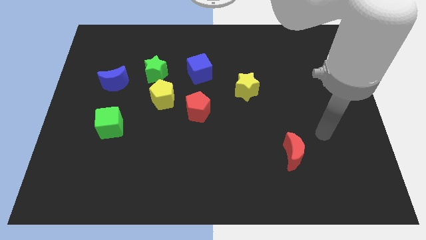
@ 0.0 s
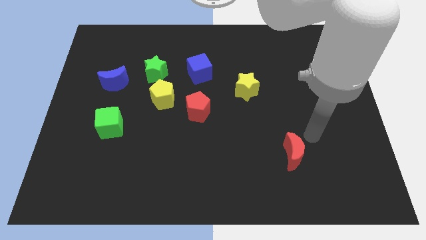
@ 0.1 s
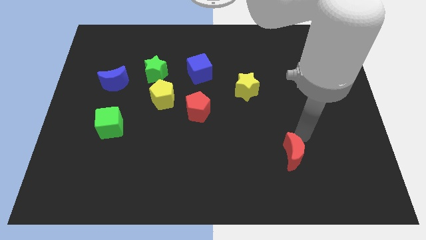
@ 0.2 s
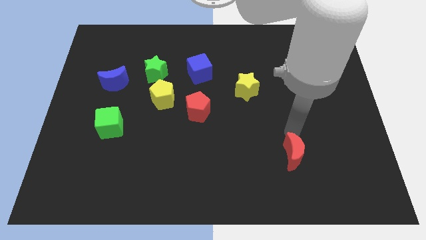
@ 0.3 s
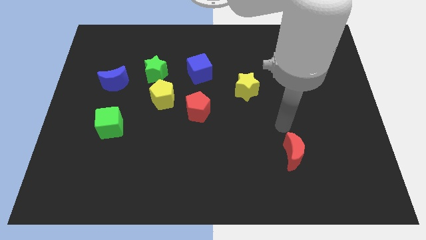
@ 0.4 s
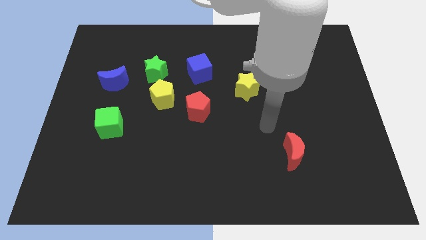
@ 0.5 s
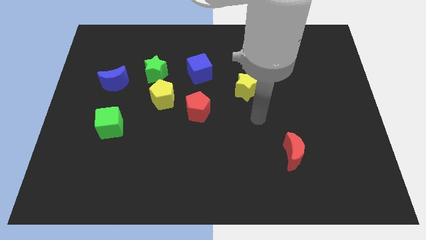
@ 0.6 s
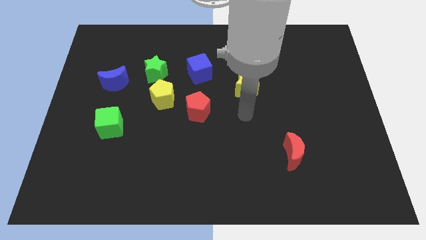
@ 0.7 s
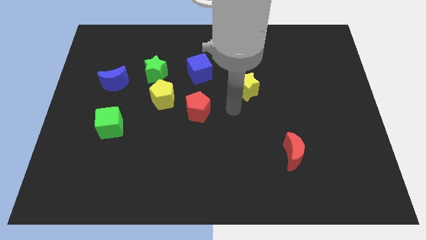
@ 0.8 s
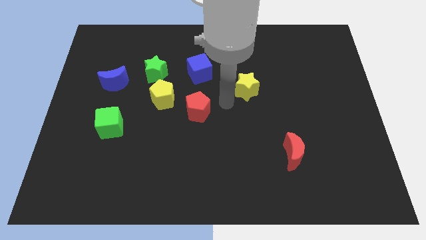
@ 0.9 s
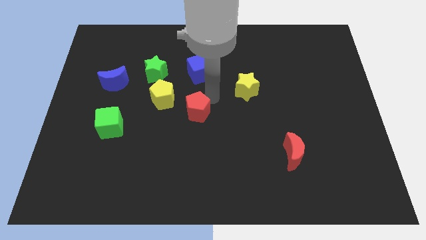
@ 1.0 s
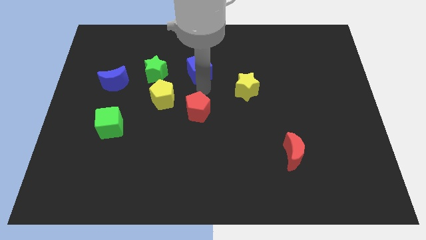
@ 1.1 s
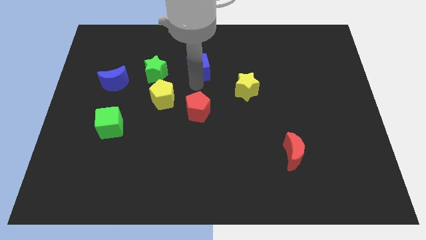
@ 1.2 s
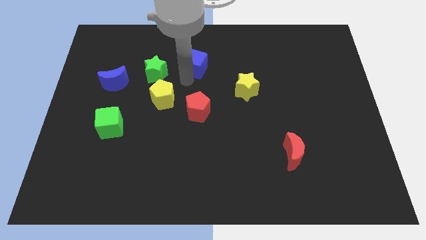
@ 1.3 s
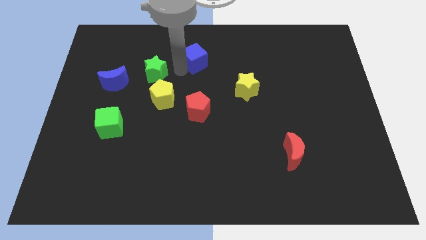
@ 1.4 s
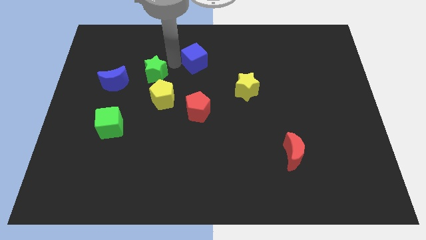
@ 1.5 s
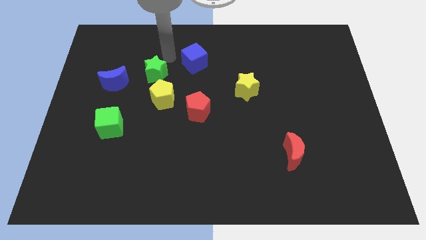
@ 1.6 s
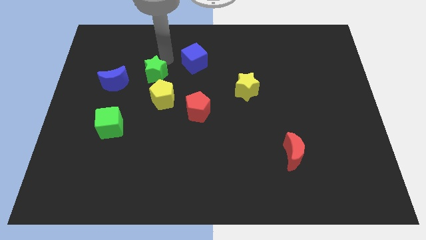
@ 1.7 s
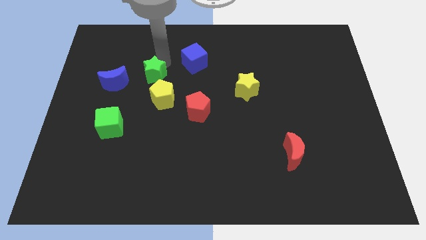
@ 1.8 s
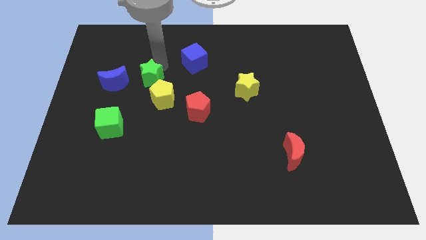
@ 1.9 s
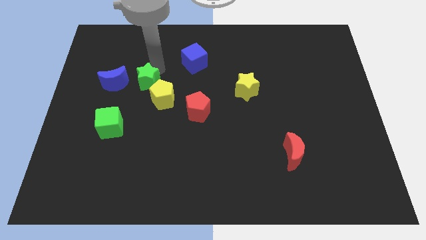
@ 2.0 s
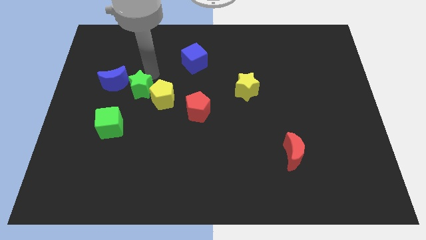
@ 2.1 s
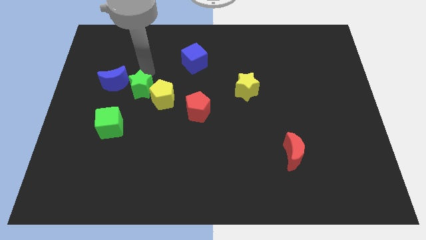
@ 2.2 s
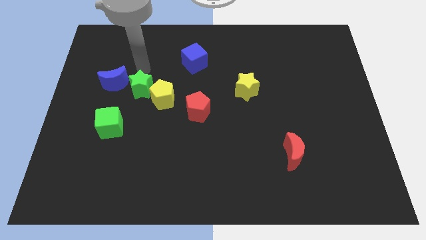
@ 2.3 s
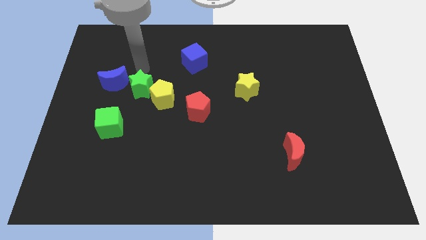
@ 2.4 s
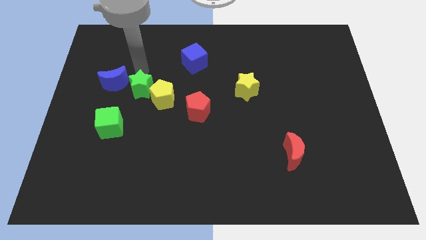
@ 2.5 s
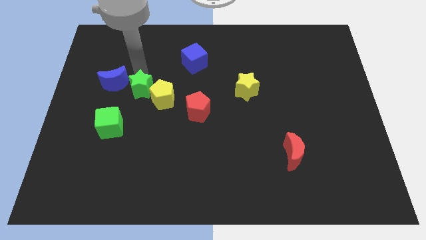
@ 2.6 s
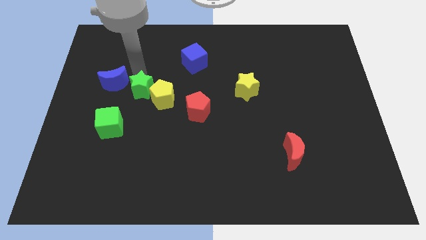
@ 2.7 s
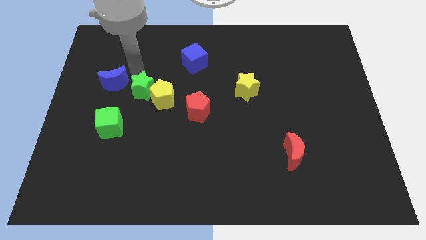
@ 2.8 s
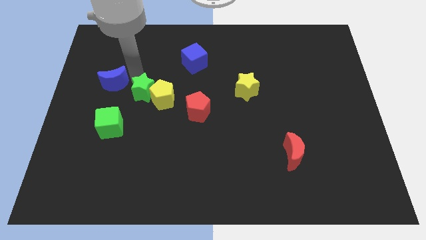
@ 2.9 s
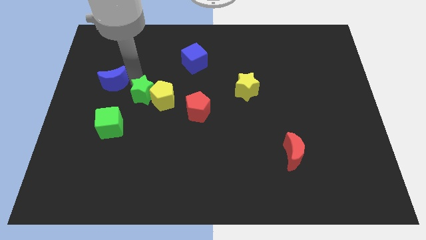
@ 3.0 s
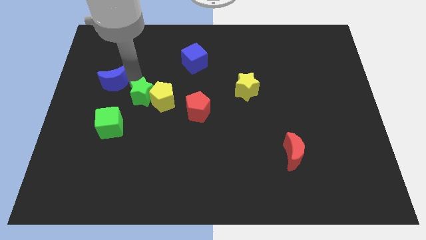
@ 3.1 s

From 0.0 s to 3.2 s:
move the green star a little downwards

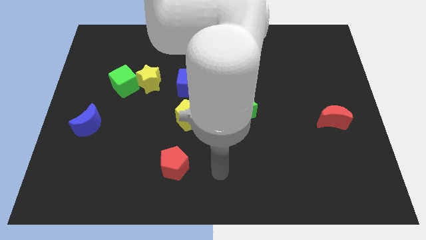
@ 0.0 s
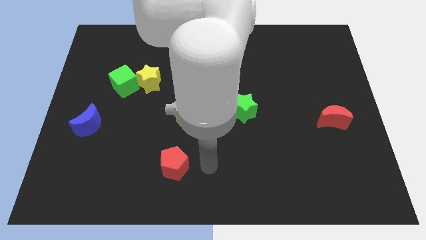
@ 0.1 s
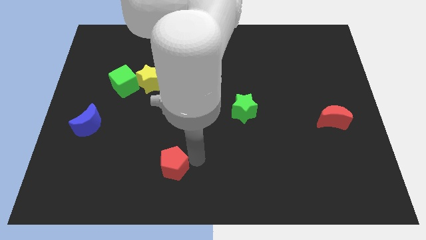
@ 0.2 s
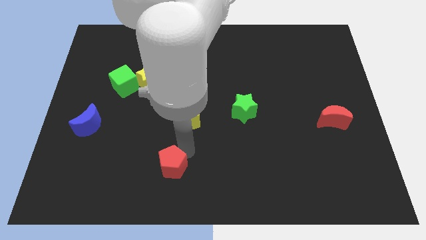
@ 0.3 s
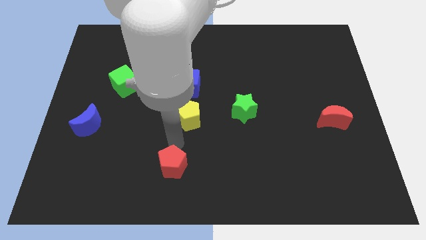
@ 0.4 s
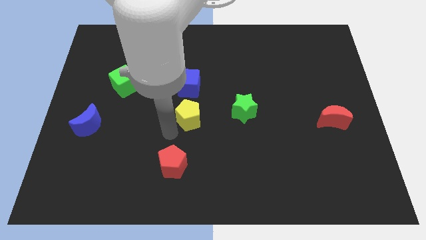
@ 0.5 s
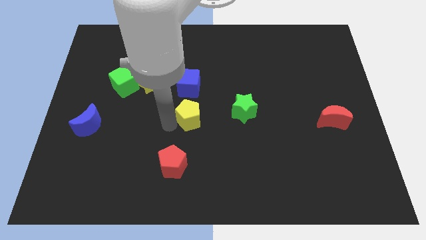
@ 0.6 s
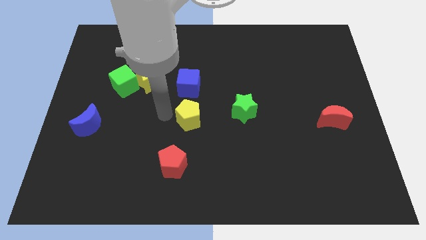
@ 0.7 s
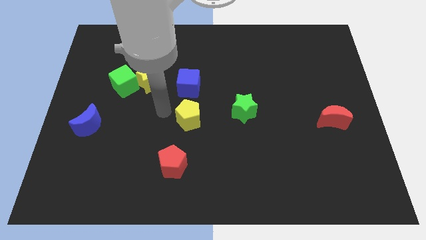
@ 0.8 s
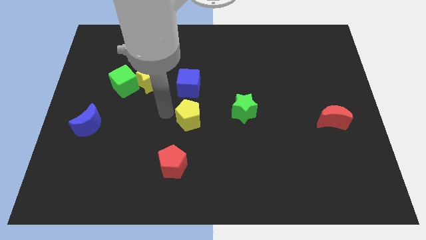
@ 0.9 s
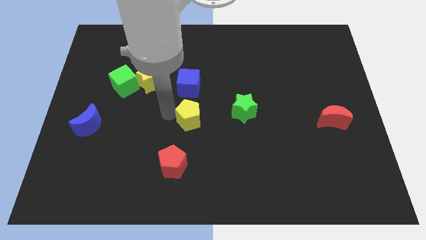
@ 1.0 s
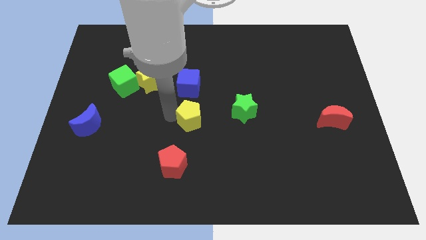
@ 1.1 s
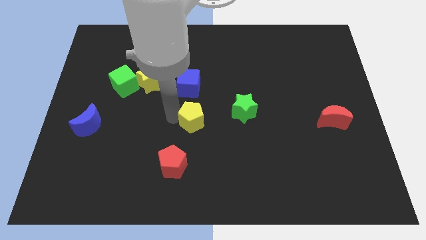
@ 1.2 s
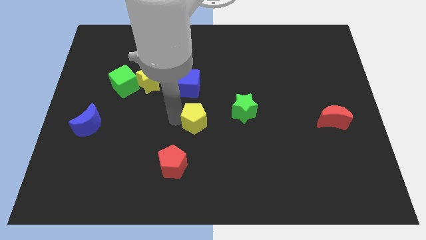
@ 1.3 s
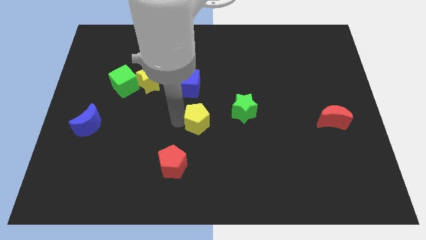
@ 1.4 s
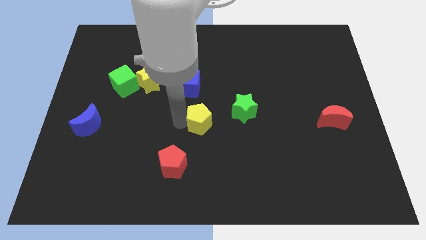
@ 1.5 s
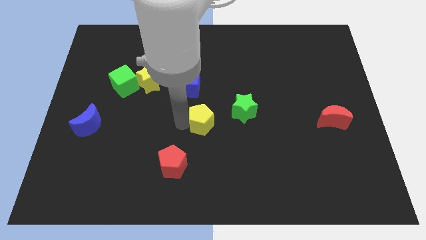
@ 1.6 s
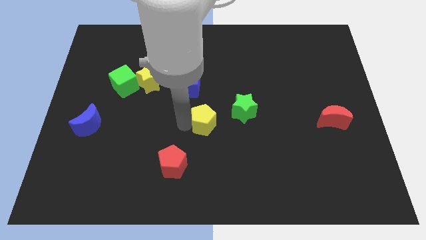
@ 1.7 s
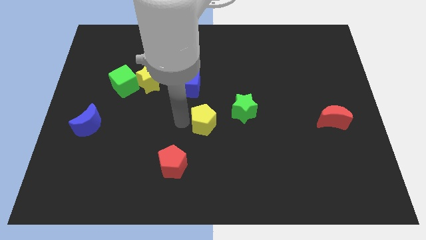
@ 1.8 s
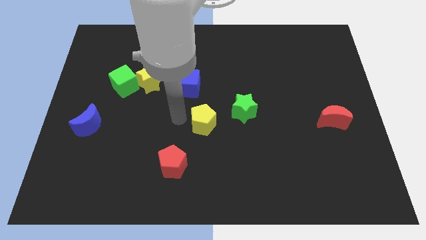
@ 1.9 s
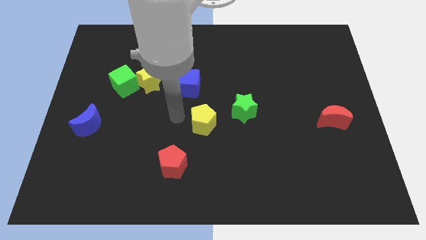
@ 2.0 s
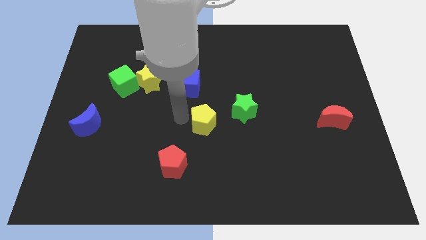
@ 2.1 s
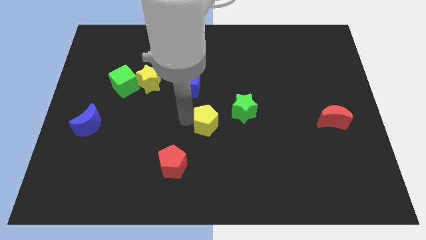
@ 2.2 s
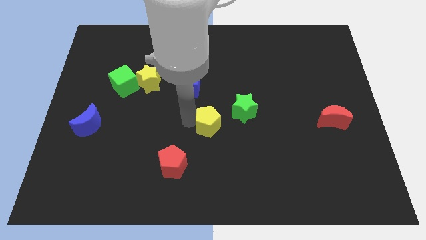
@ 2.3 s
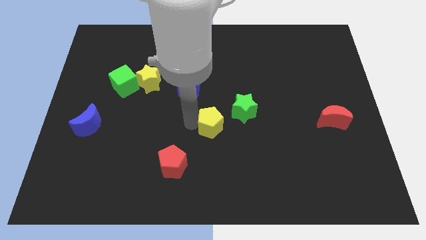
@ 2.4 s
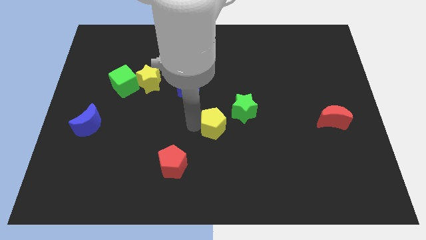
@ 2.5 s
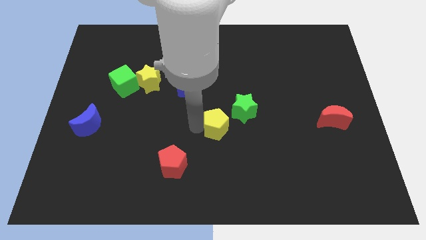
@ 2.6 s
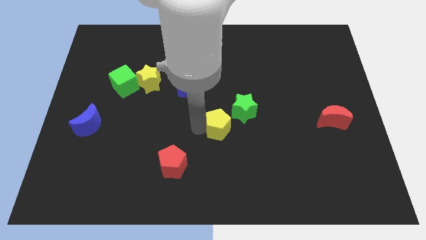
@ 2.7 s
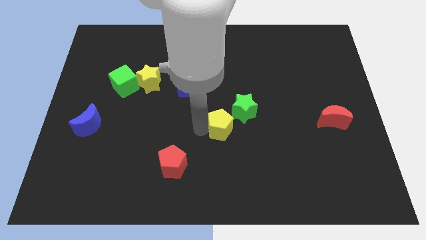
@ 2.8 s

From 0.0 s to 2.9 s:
slide the yellow pentagon to the right slightly

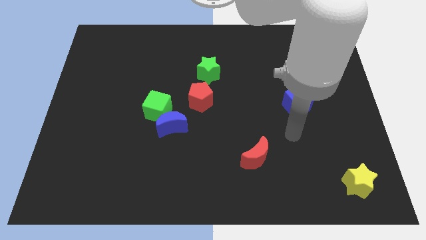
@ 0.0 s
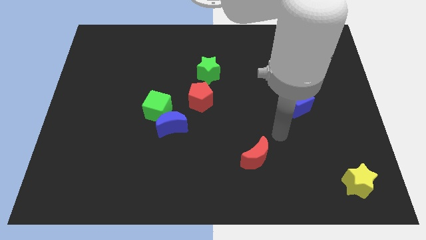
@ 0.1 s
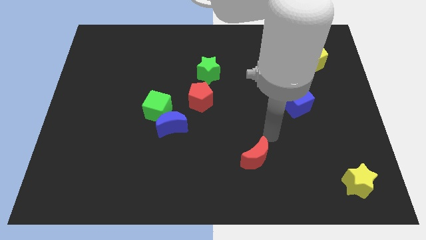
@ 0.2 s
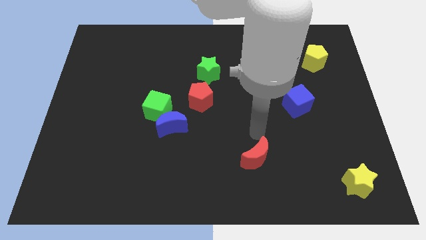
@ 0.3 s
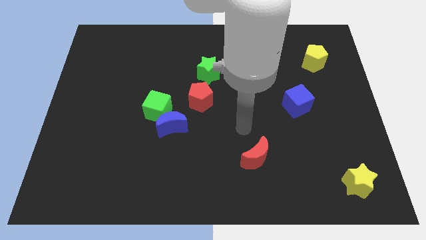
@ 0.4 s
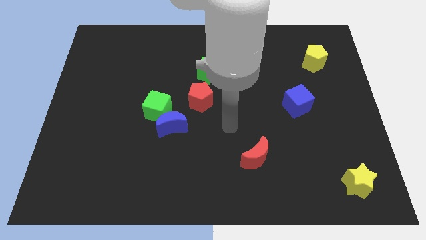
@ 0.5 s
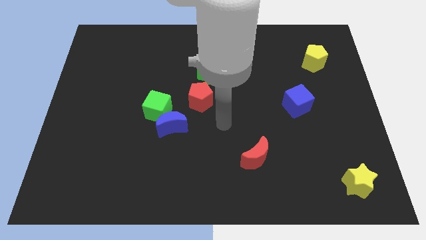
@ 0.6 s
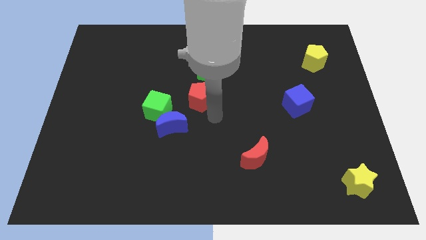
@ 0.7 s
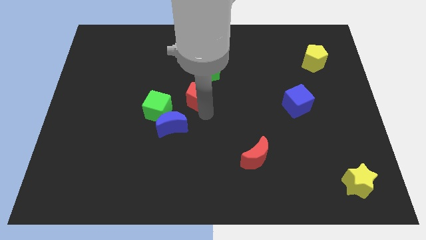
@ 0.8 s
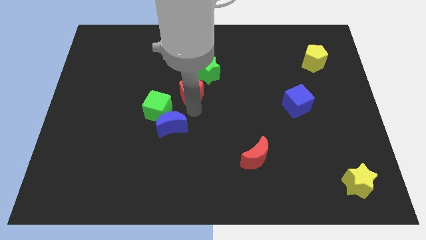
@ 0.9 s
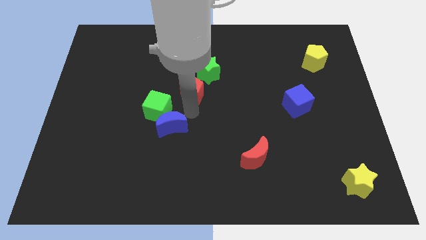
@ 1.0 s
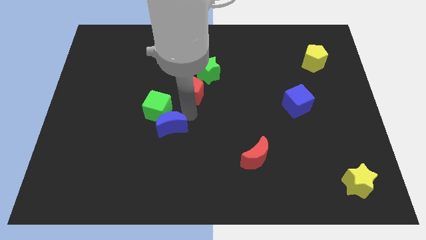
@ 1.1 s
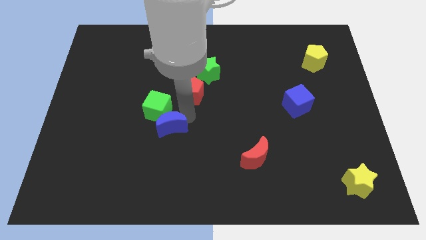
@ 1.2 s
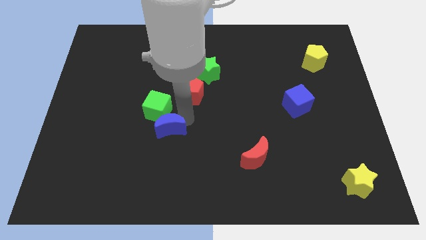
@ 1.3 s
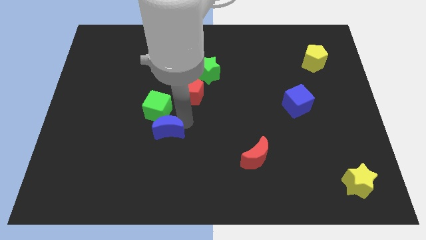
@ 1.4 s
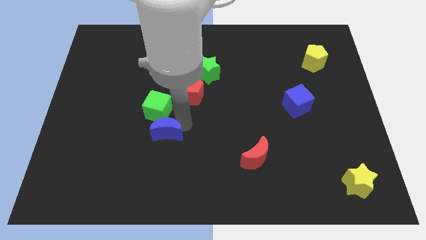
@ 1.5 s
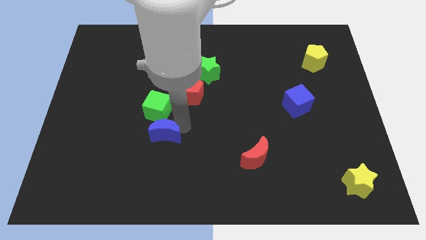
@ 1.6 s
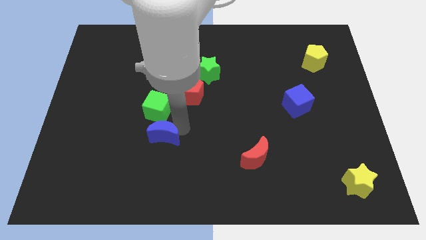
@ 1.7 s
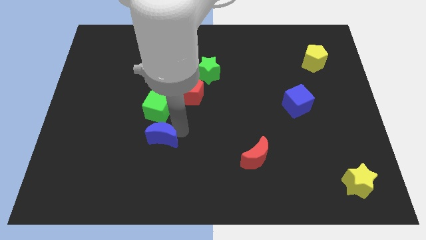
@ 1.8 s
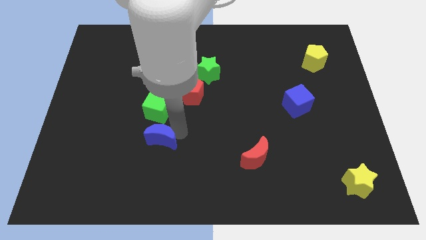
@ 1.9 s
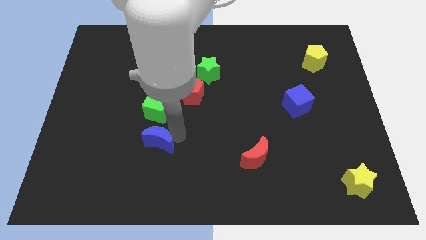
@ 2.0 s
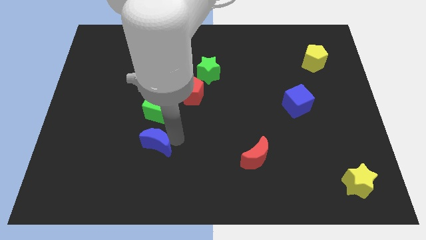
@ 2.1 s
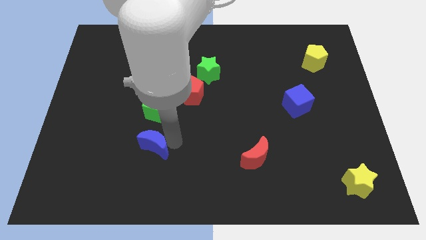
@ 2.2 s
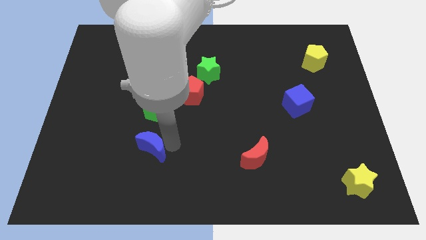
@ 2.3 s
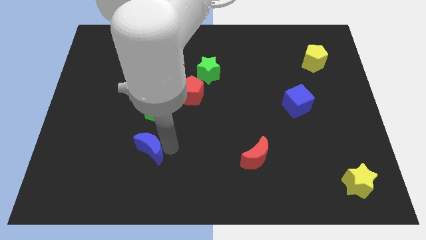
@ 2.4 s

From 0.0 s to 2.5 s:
move the blue moon downwards and then left a little
